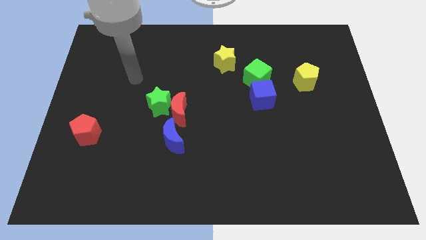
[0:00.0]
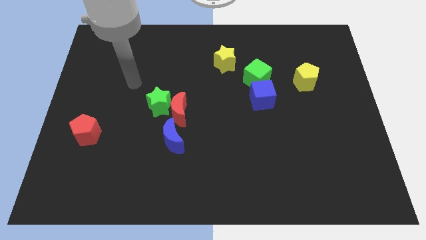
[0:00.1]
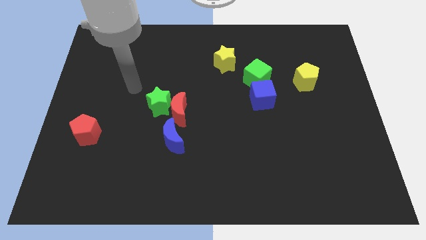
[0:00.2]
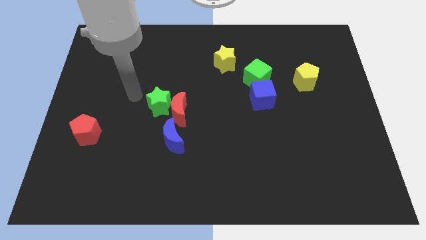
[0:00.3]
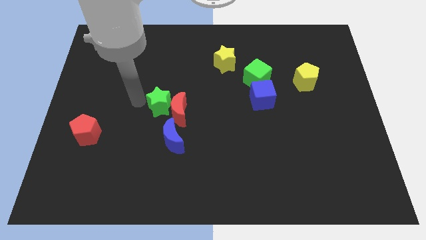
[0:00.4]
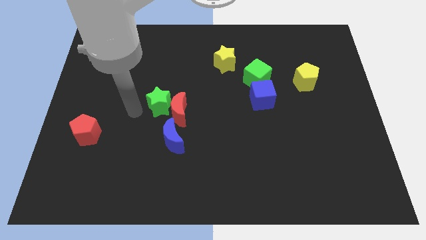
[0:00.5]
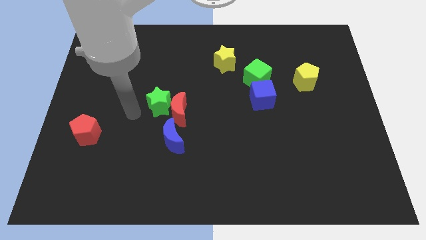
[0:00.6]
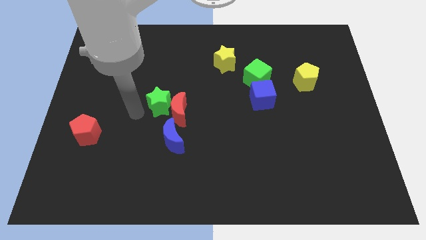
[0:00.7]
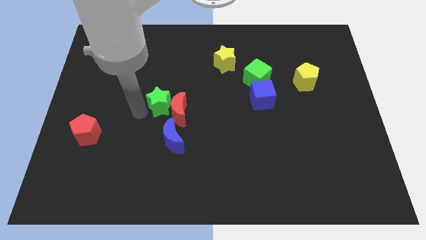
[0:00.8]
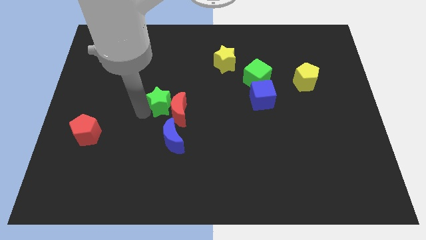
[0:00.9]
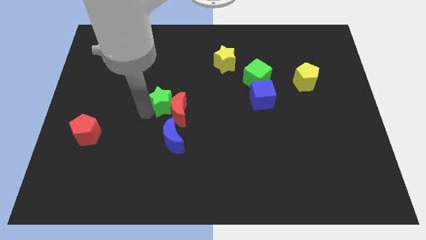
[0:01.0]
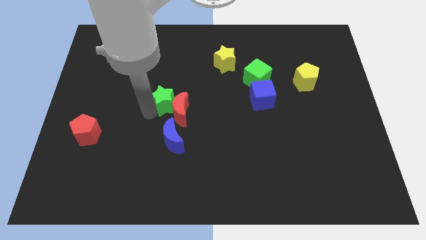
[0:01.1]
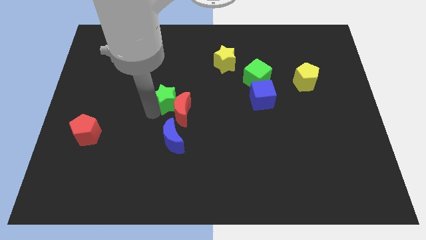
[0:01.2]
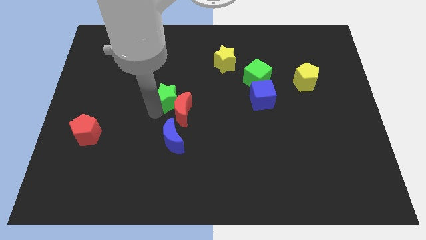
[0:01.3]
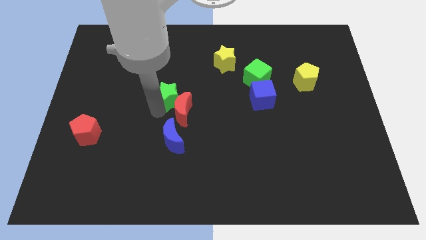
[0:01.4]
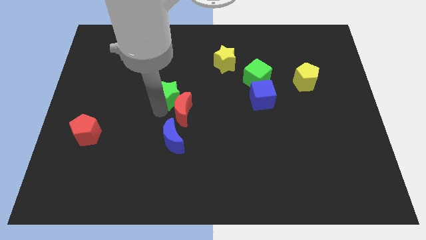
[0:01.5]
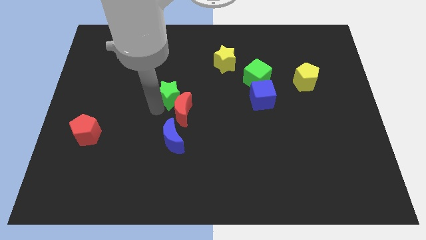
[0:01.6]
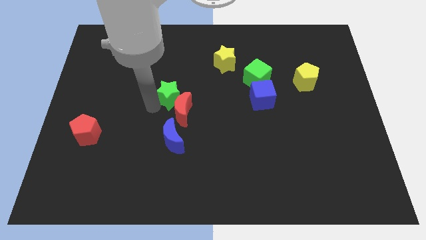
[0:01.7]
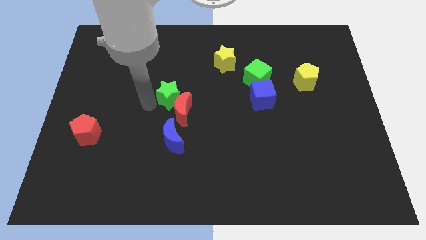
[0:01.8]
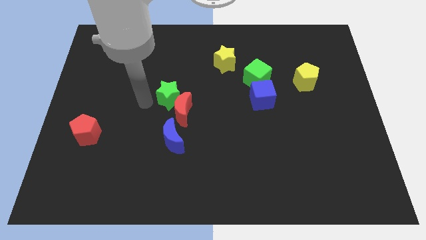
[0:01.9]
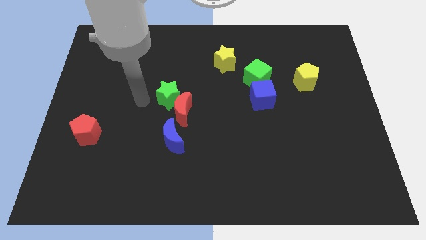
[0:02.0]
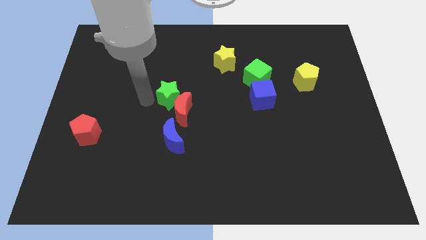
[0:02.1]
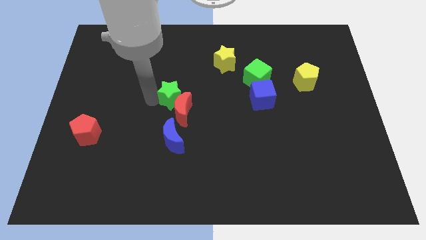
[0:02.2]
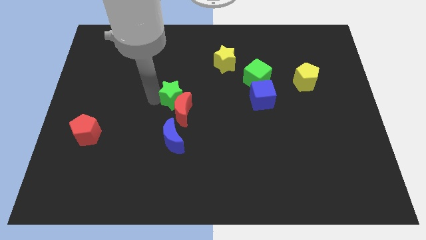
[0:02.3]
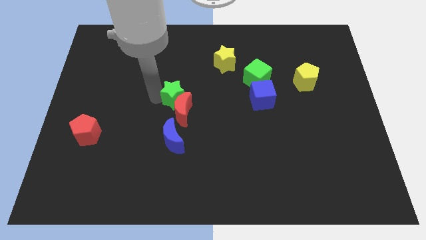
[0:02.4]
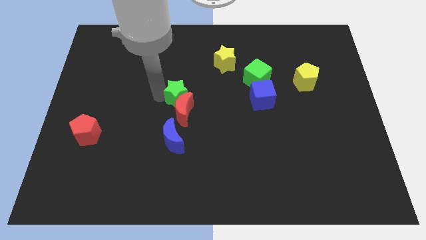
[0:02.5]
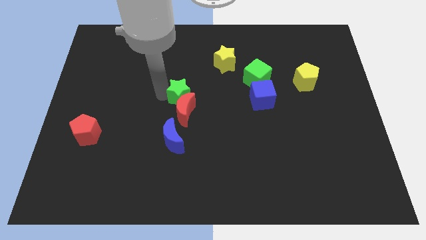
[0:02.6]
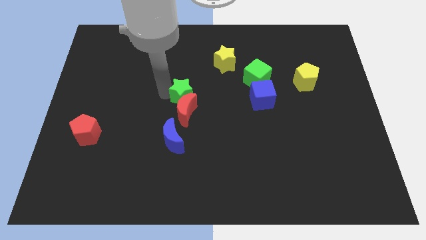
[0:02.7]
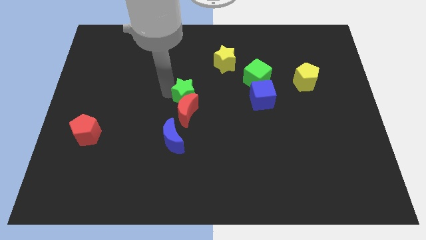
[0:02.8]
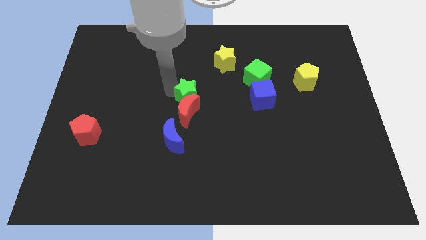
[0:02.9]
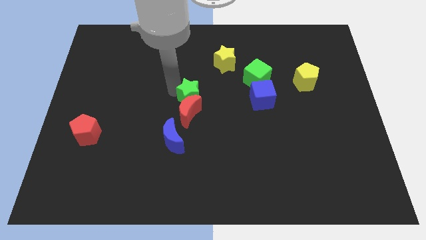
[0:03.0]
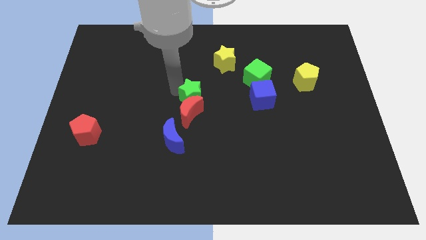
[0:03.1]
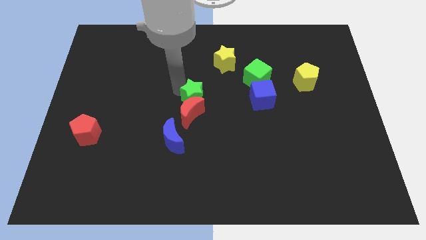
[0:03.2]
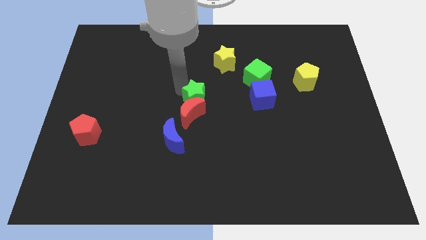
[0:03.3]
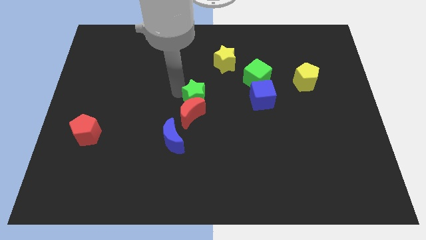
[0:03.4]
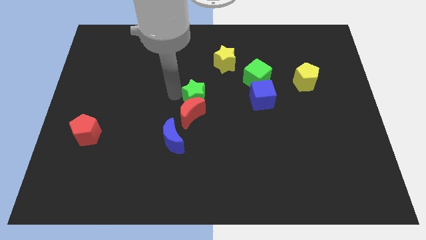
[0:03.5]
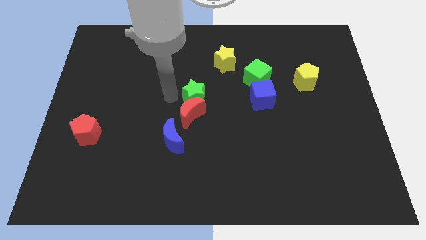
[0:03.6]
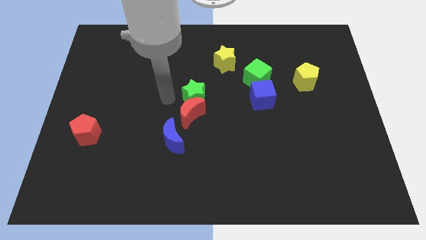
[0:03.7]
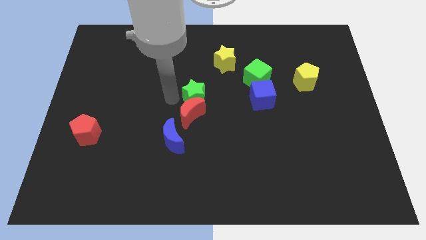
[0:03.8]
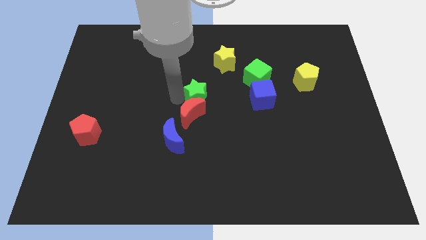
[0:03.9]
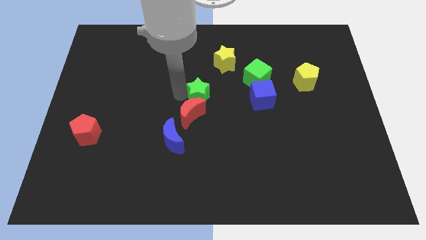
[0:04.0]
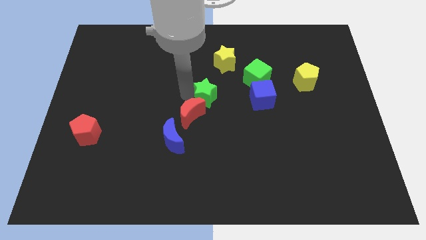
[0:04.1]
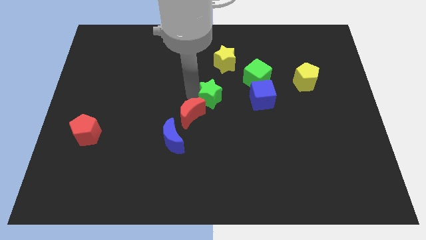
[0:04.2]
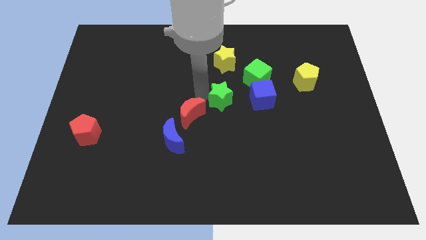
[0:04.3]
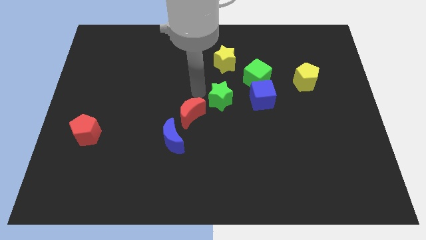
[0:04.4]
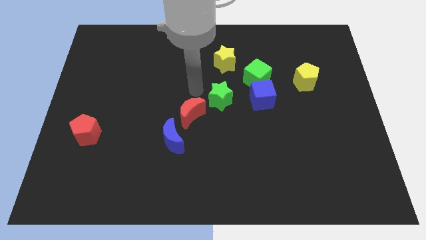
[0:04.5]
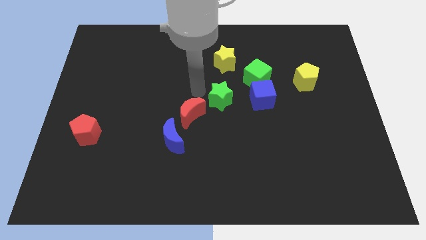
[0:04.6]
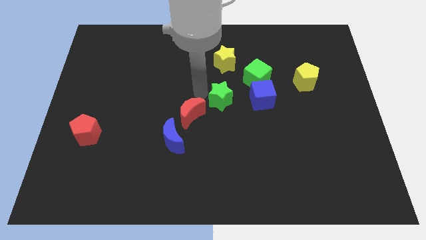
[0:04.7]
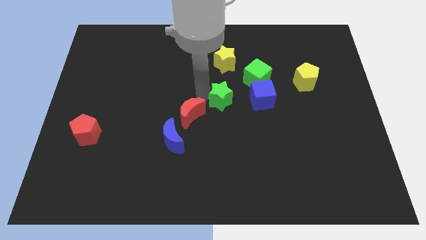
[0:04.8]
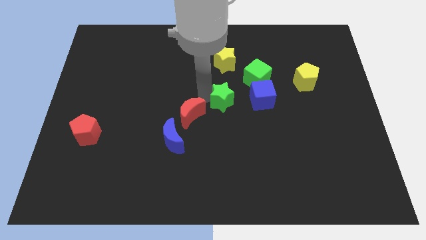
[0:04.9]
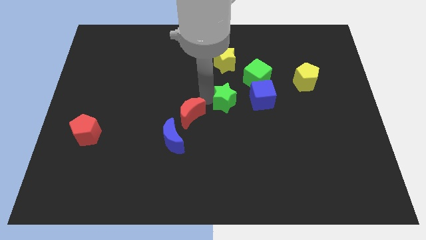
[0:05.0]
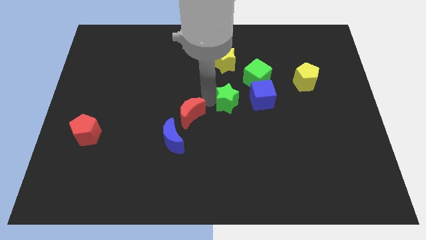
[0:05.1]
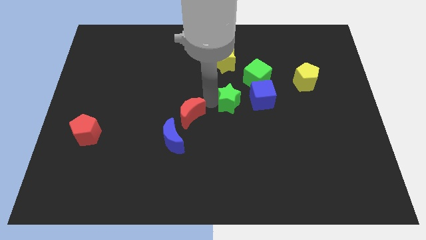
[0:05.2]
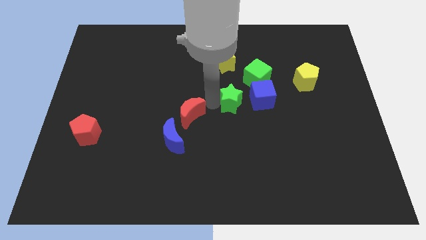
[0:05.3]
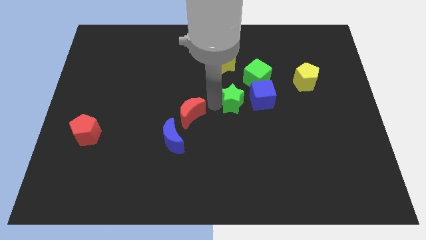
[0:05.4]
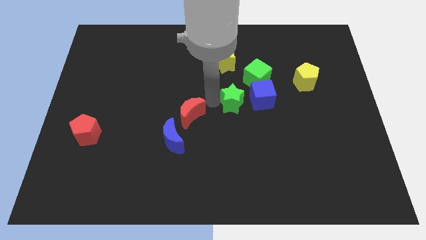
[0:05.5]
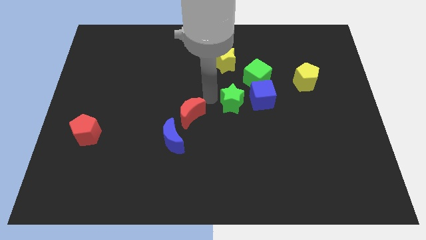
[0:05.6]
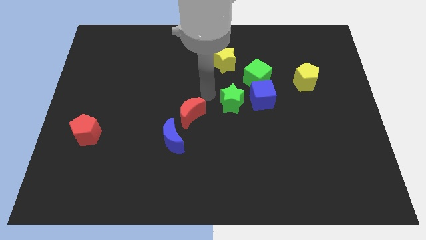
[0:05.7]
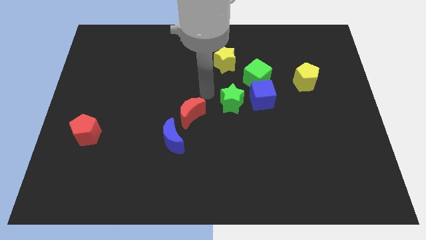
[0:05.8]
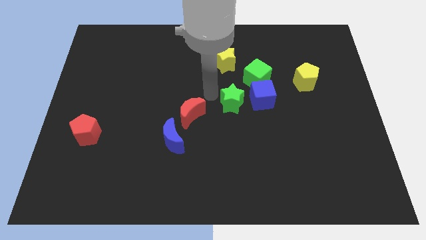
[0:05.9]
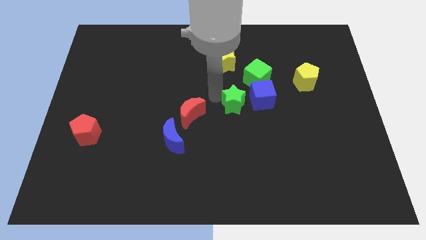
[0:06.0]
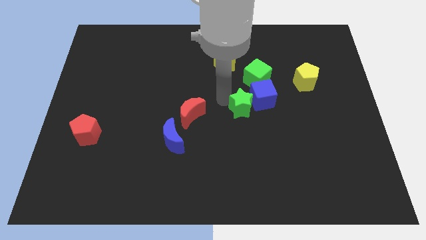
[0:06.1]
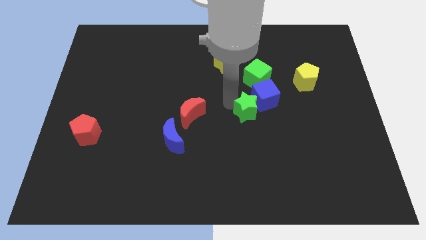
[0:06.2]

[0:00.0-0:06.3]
slide the green star to the right

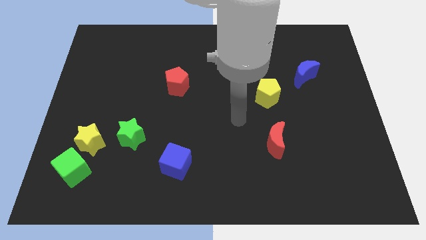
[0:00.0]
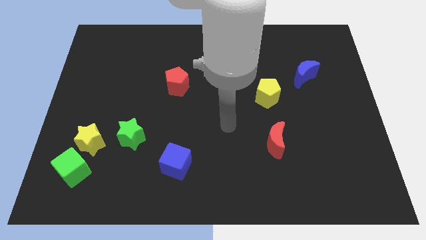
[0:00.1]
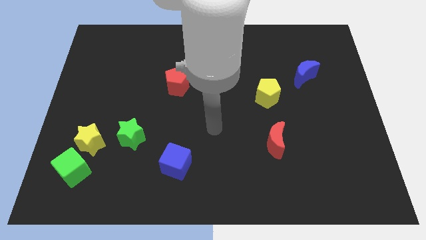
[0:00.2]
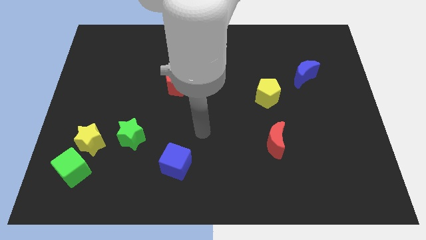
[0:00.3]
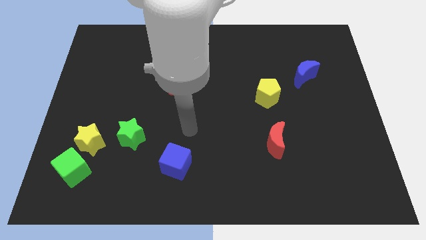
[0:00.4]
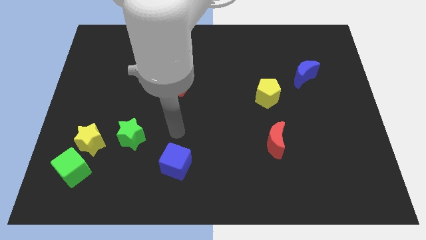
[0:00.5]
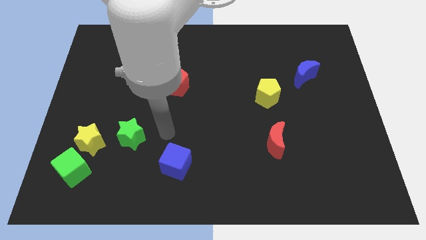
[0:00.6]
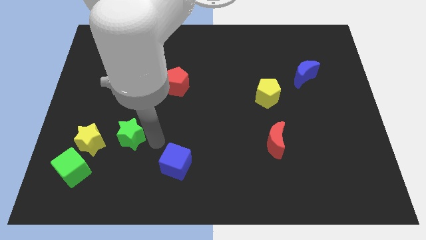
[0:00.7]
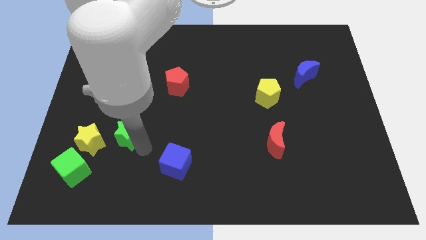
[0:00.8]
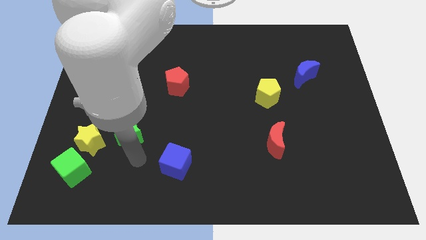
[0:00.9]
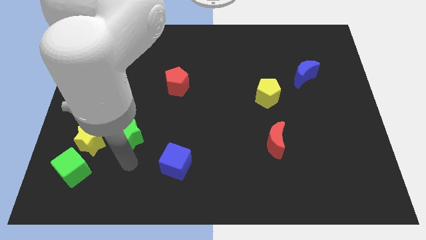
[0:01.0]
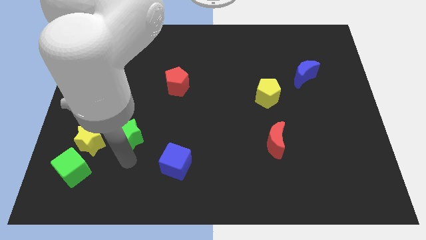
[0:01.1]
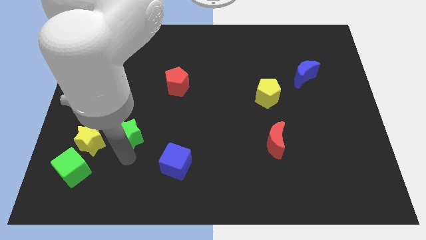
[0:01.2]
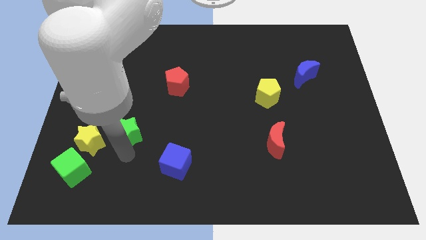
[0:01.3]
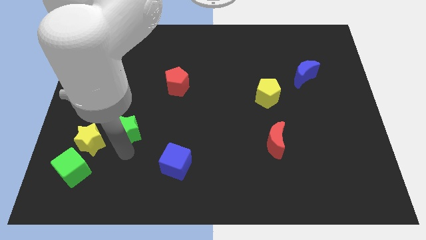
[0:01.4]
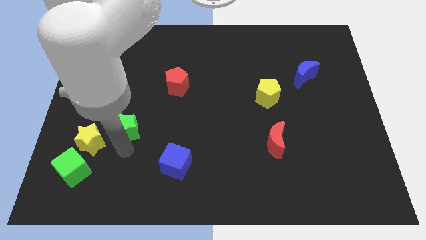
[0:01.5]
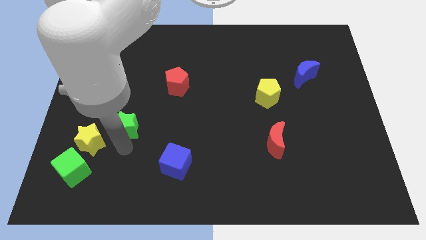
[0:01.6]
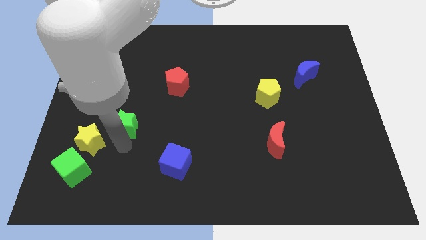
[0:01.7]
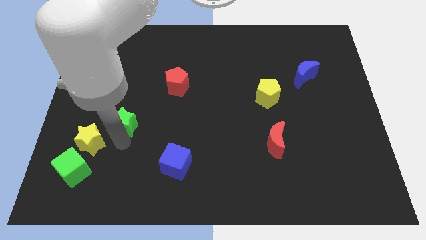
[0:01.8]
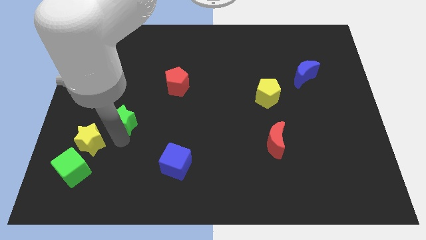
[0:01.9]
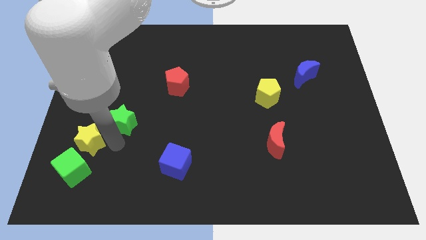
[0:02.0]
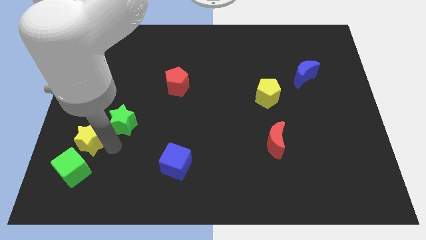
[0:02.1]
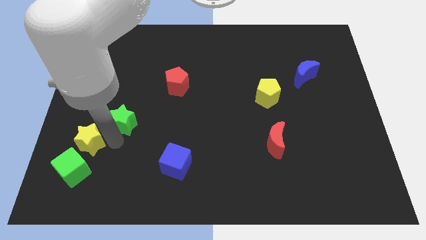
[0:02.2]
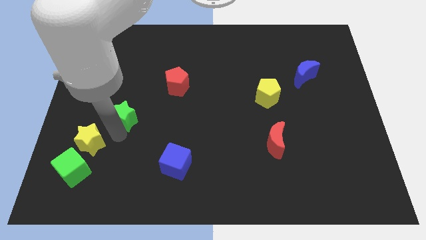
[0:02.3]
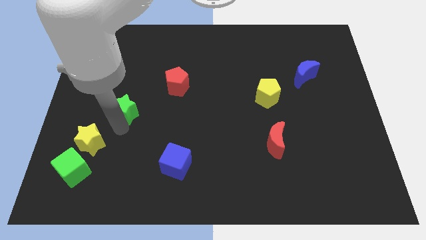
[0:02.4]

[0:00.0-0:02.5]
slightly move the green star up
